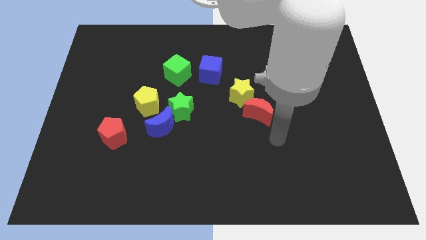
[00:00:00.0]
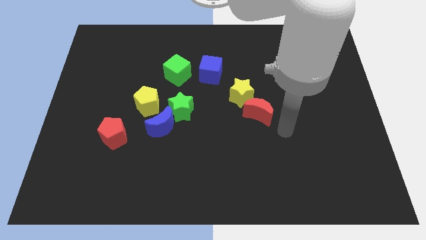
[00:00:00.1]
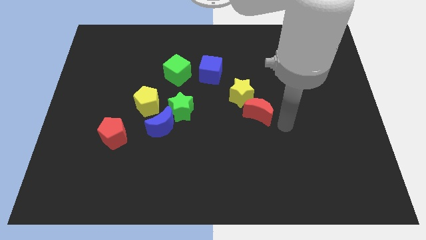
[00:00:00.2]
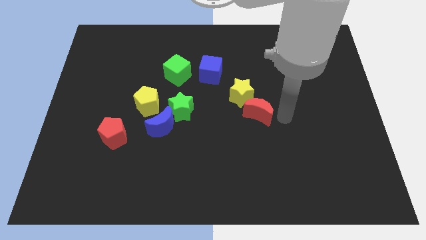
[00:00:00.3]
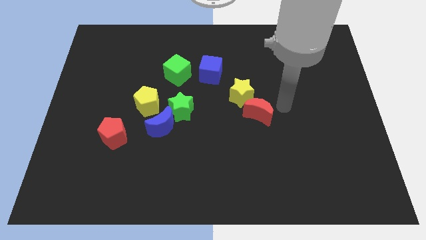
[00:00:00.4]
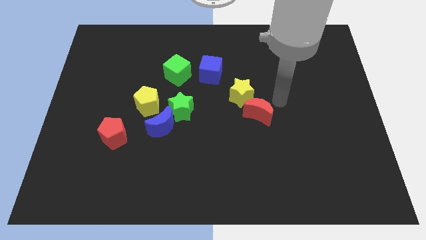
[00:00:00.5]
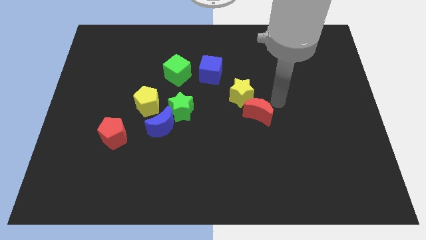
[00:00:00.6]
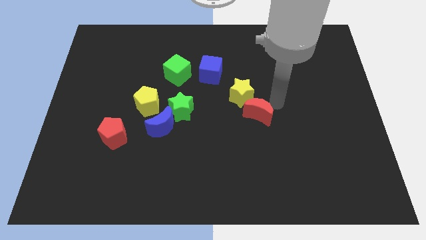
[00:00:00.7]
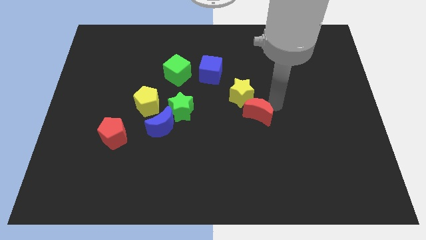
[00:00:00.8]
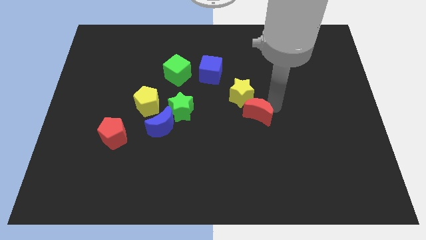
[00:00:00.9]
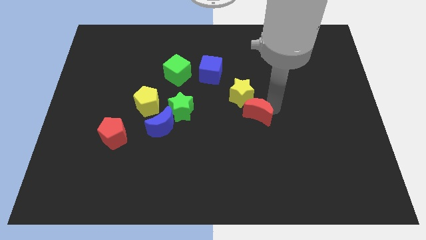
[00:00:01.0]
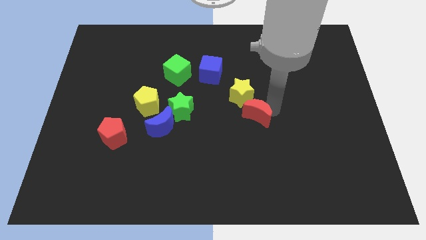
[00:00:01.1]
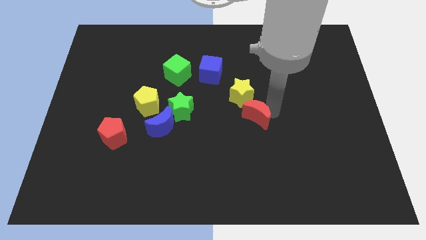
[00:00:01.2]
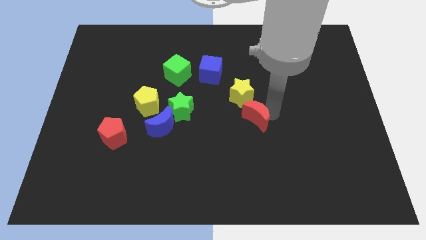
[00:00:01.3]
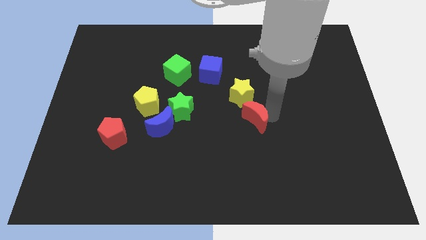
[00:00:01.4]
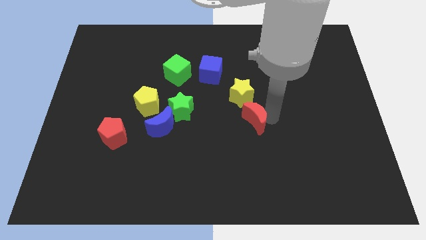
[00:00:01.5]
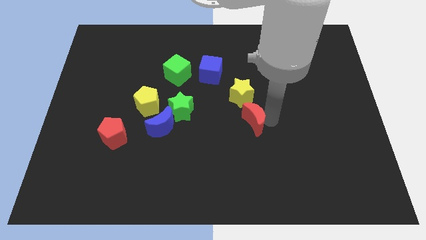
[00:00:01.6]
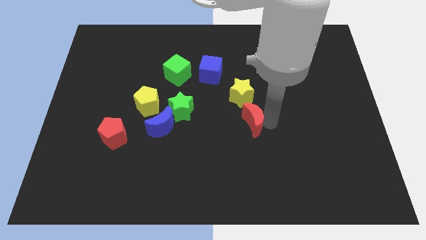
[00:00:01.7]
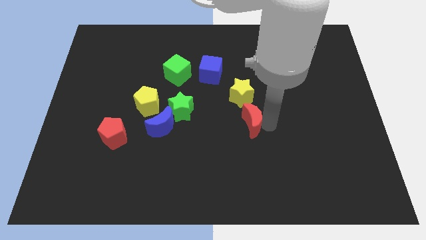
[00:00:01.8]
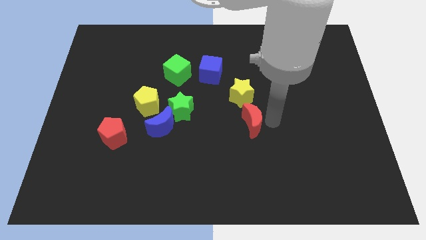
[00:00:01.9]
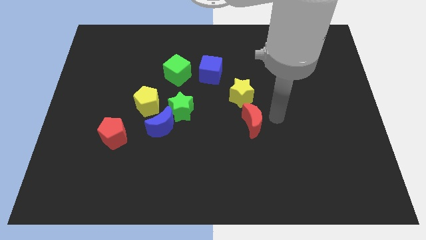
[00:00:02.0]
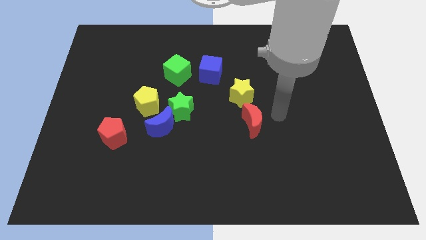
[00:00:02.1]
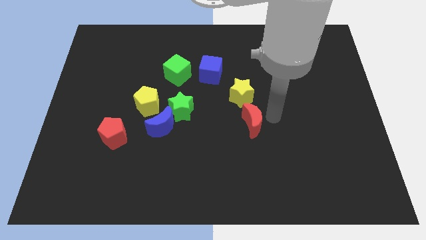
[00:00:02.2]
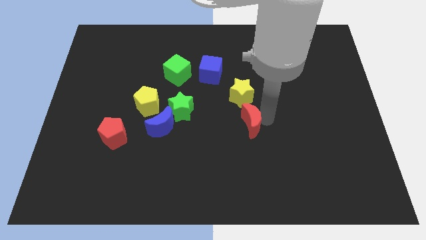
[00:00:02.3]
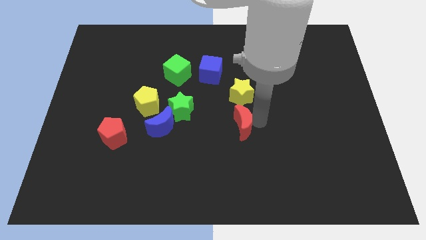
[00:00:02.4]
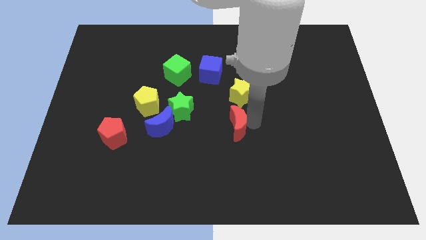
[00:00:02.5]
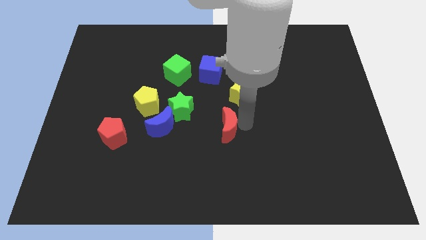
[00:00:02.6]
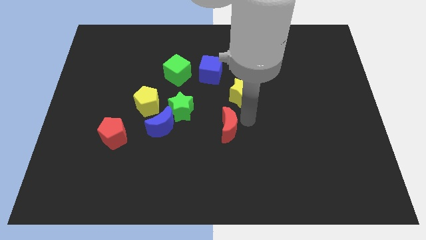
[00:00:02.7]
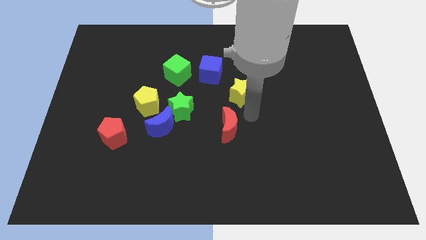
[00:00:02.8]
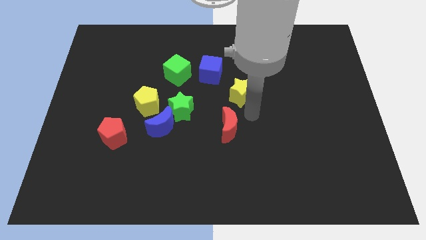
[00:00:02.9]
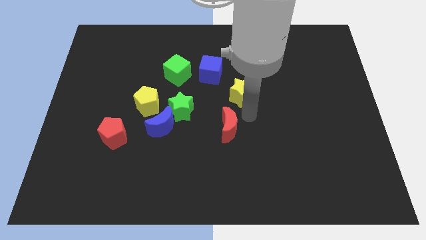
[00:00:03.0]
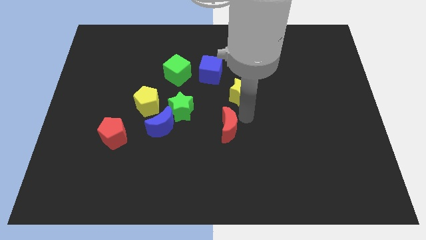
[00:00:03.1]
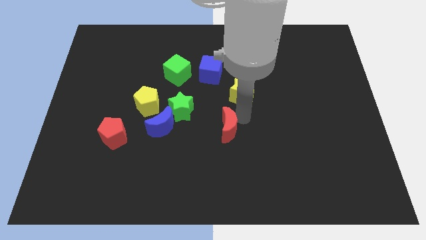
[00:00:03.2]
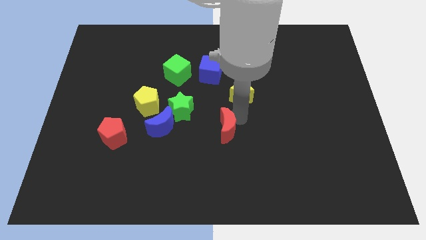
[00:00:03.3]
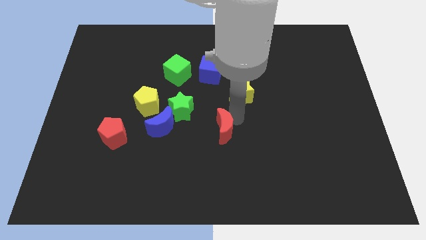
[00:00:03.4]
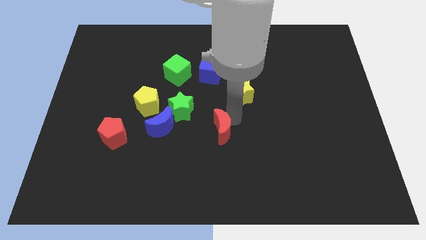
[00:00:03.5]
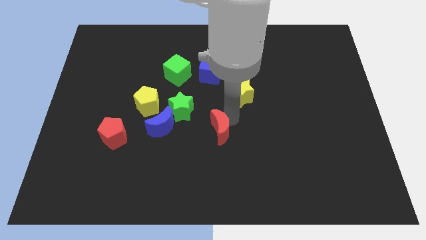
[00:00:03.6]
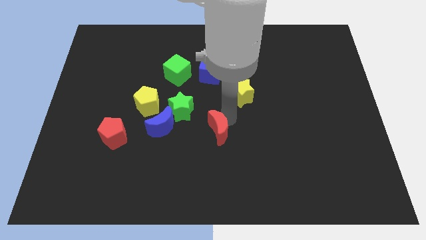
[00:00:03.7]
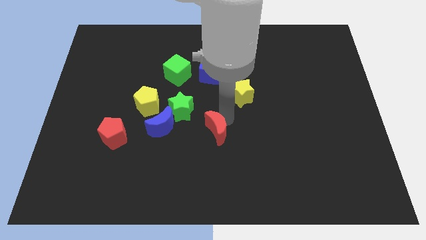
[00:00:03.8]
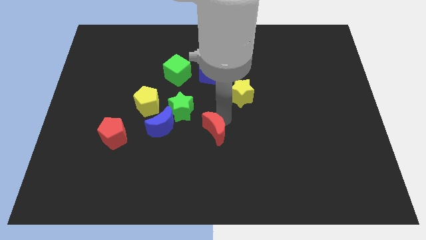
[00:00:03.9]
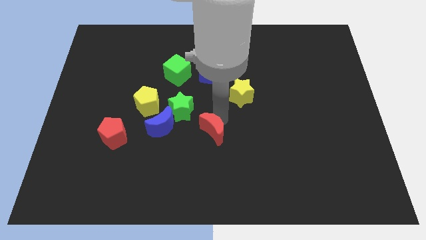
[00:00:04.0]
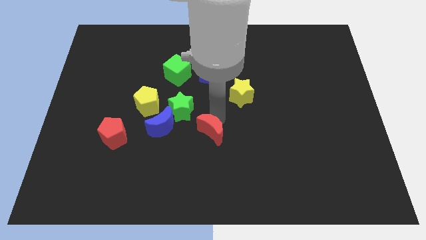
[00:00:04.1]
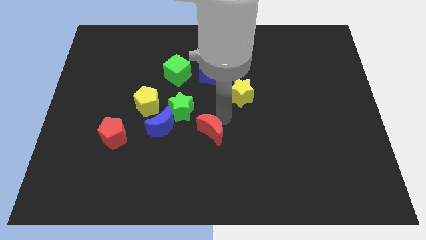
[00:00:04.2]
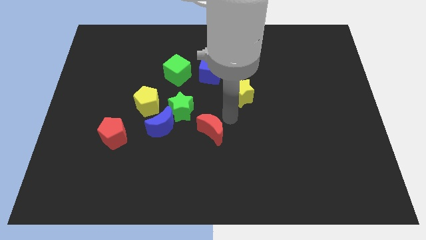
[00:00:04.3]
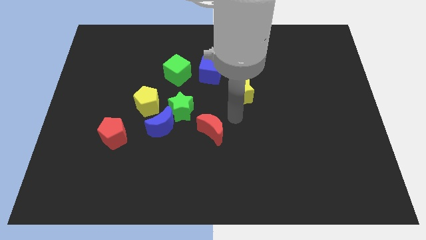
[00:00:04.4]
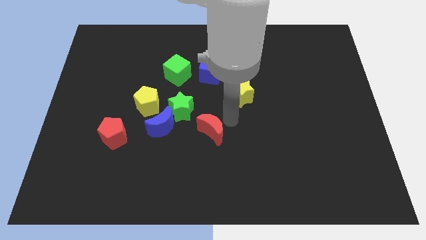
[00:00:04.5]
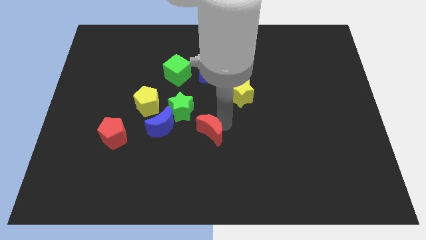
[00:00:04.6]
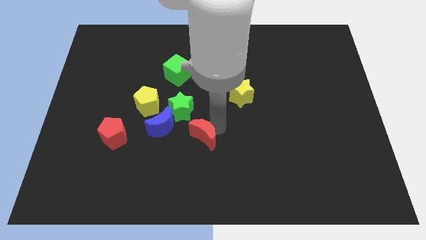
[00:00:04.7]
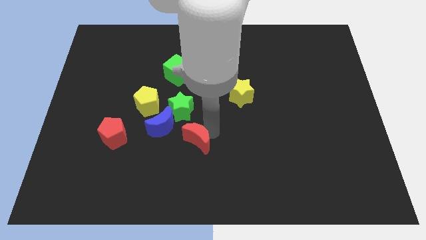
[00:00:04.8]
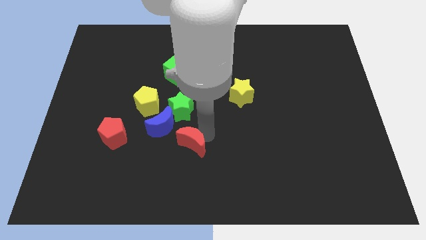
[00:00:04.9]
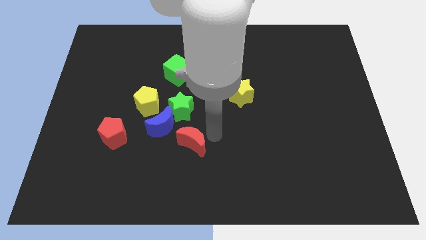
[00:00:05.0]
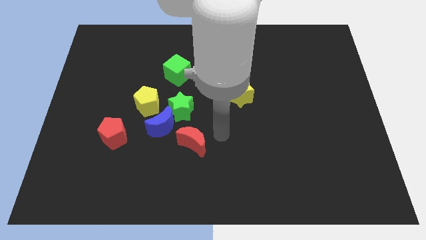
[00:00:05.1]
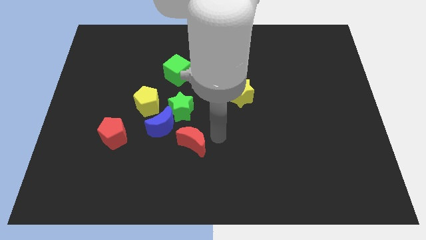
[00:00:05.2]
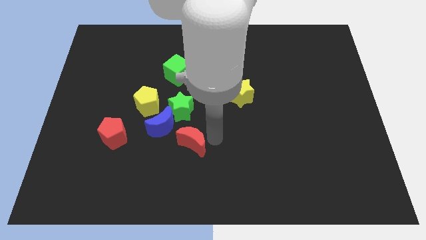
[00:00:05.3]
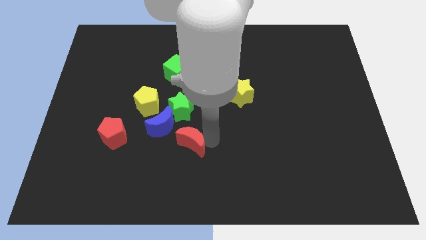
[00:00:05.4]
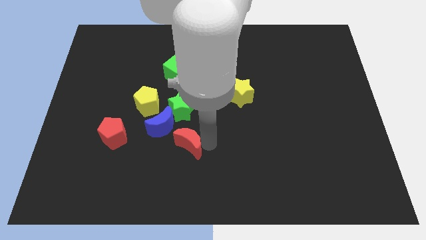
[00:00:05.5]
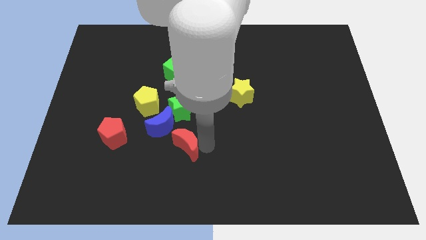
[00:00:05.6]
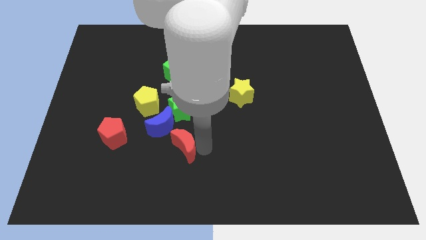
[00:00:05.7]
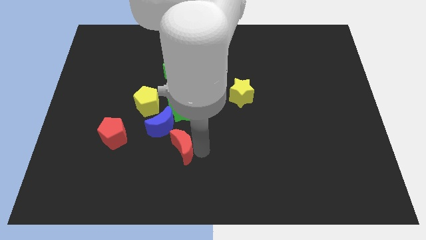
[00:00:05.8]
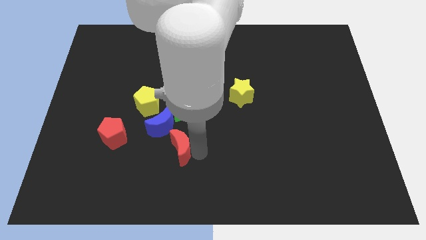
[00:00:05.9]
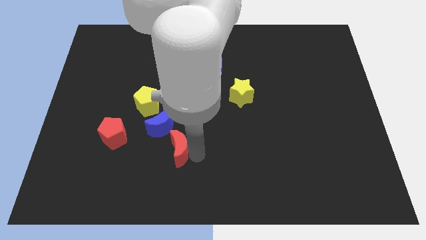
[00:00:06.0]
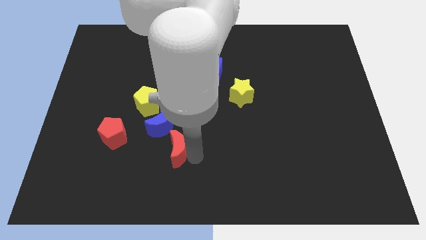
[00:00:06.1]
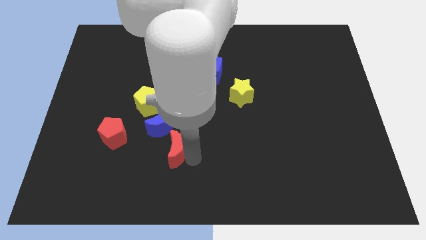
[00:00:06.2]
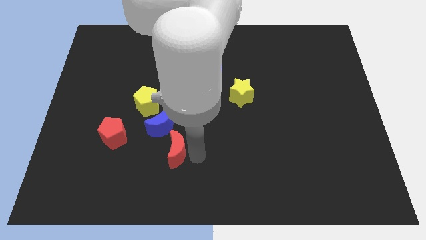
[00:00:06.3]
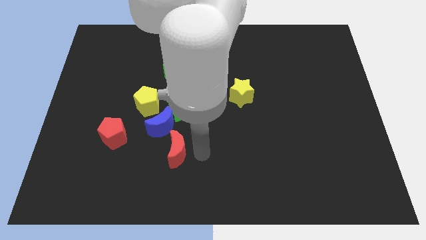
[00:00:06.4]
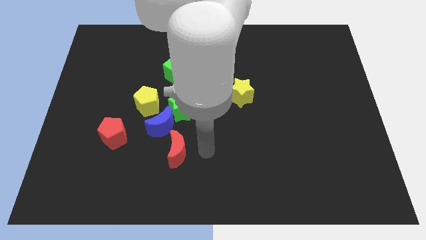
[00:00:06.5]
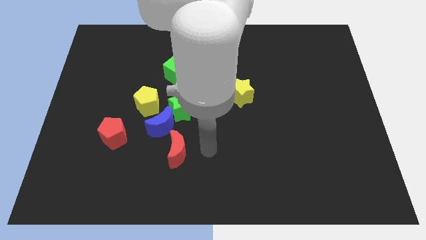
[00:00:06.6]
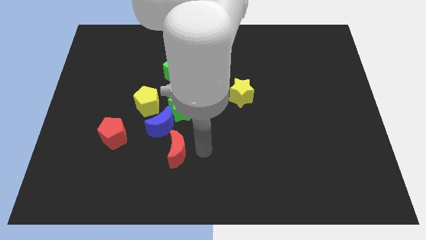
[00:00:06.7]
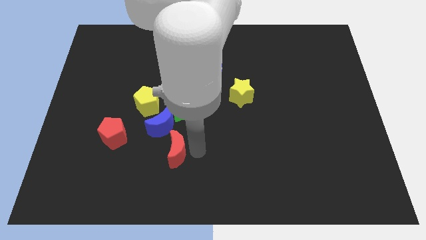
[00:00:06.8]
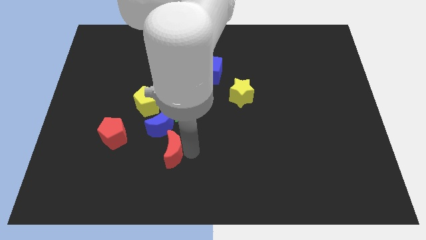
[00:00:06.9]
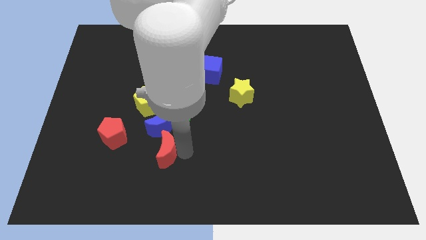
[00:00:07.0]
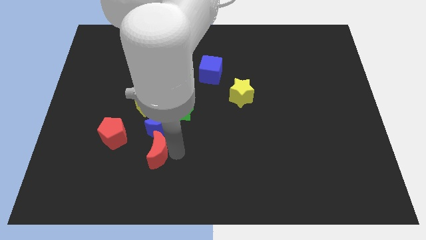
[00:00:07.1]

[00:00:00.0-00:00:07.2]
slide the red moon to the bottom right side of the red pentagon

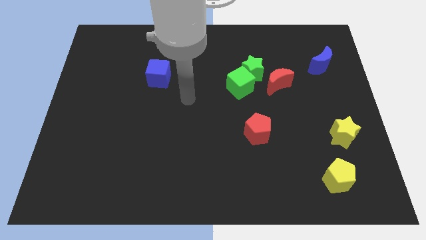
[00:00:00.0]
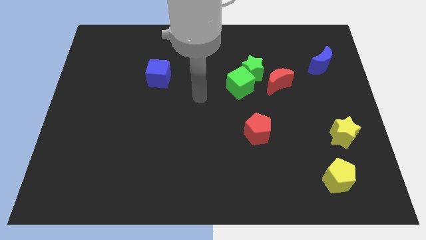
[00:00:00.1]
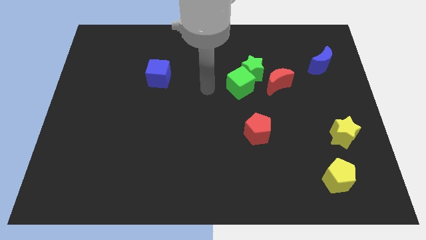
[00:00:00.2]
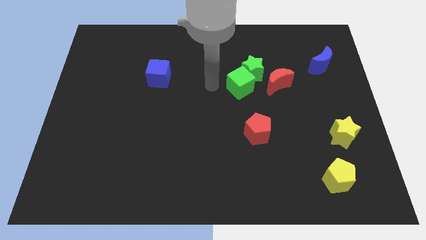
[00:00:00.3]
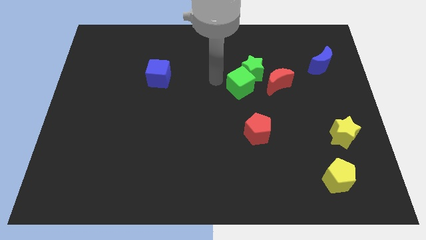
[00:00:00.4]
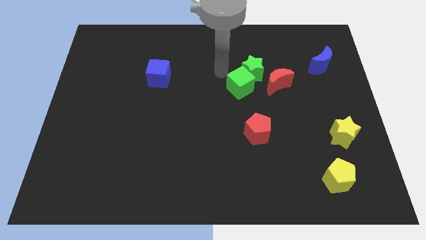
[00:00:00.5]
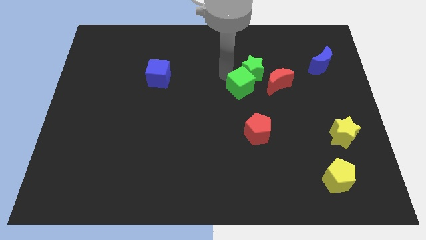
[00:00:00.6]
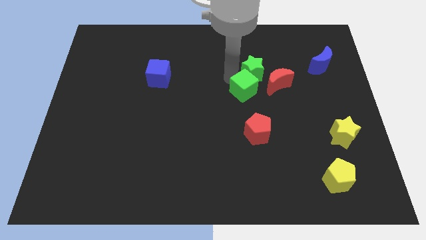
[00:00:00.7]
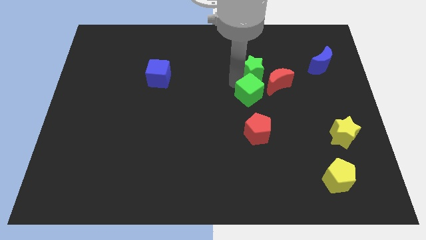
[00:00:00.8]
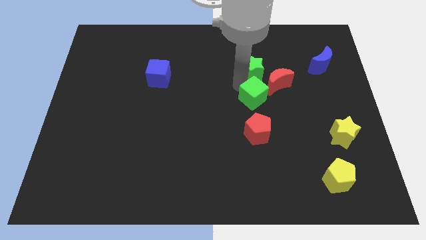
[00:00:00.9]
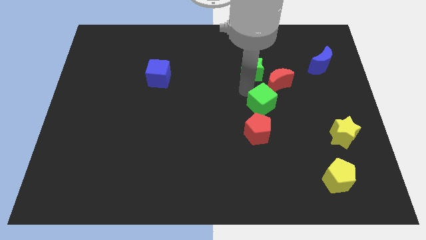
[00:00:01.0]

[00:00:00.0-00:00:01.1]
slide the green cube below the red moon
